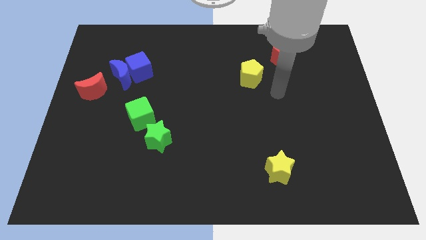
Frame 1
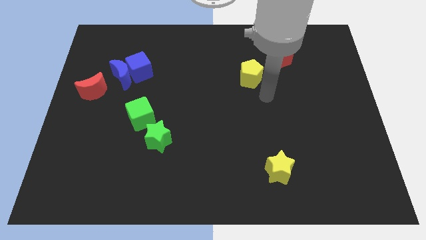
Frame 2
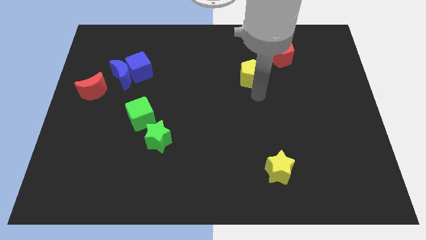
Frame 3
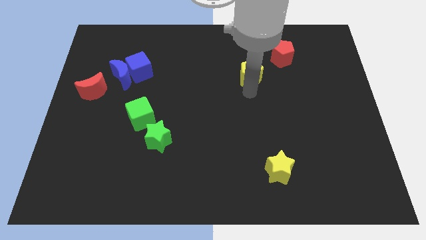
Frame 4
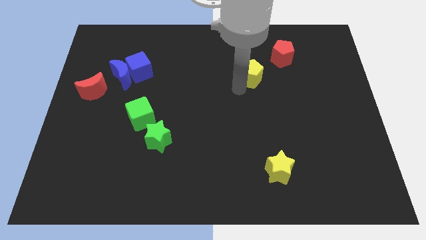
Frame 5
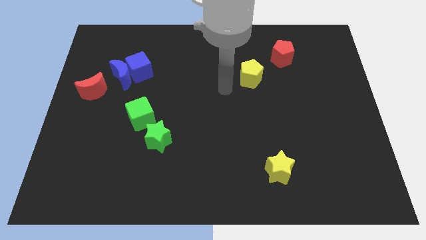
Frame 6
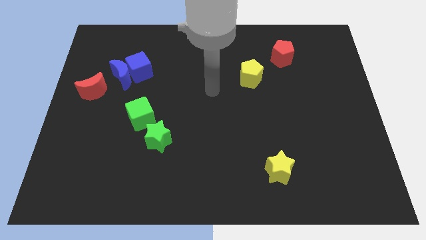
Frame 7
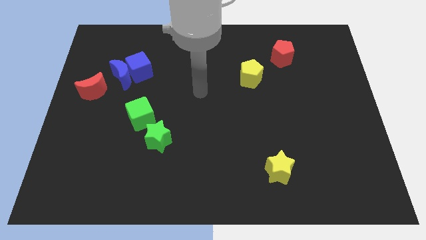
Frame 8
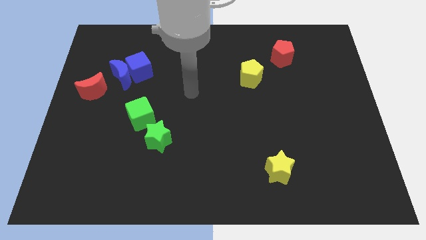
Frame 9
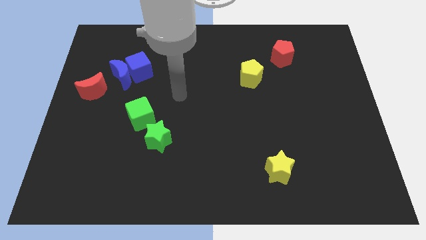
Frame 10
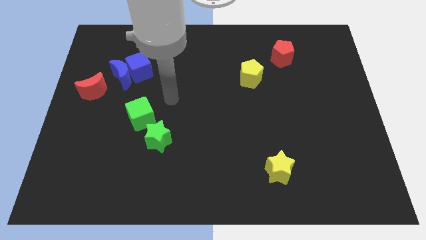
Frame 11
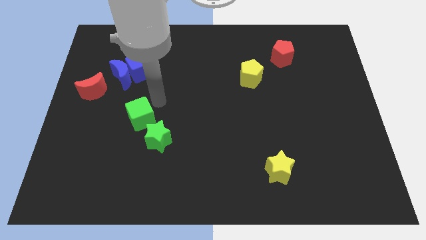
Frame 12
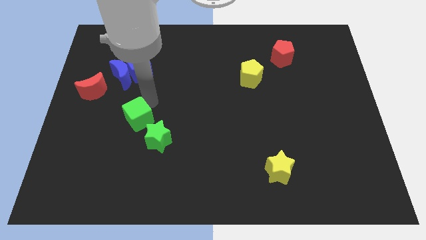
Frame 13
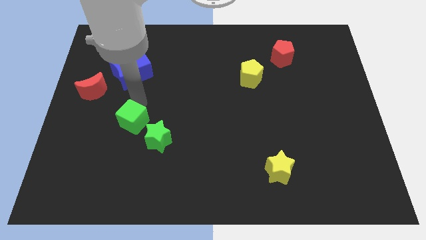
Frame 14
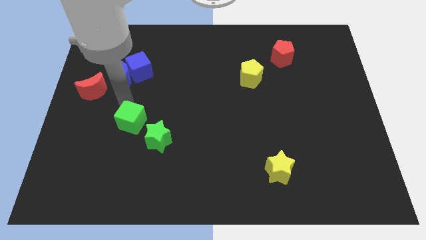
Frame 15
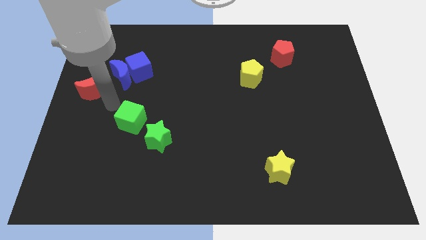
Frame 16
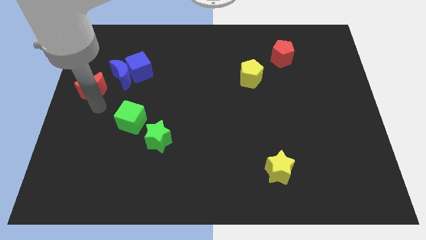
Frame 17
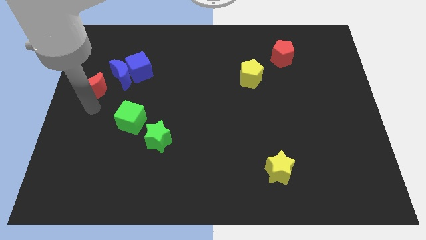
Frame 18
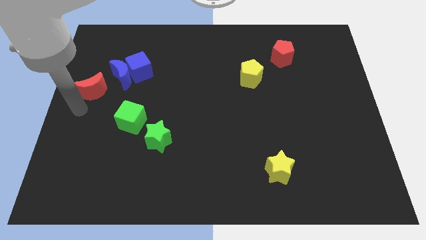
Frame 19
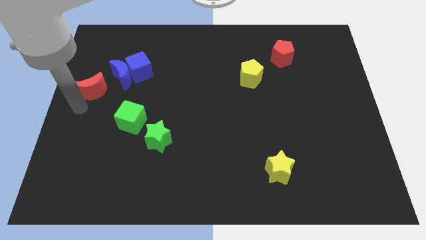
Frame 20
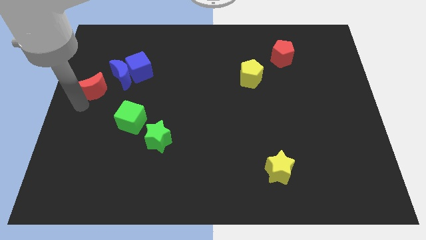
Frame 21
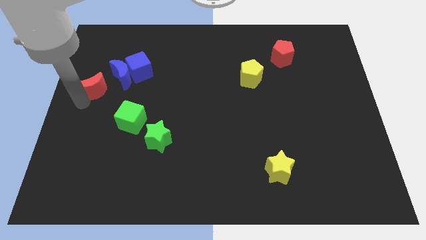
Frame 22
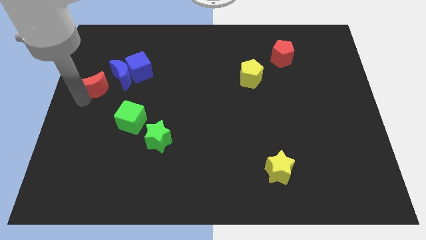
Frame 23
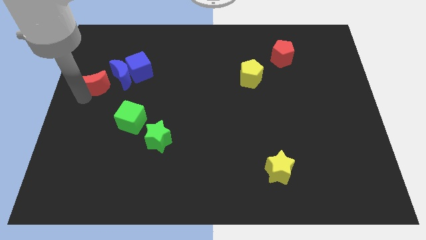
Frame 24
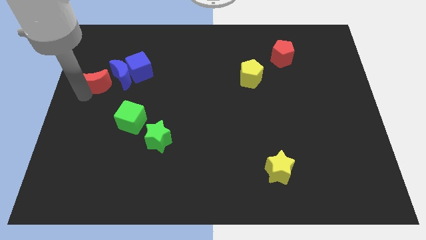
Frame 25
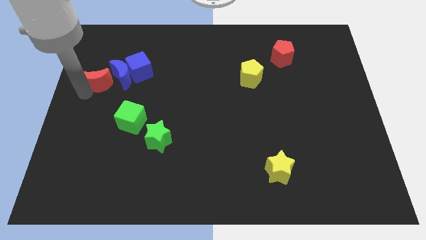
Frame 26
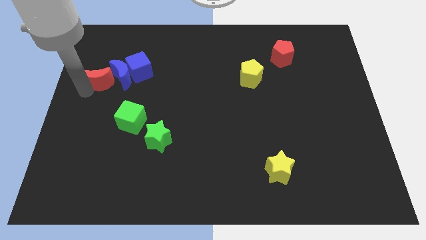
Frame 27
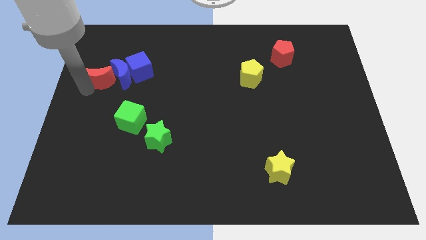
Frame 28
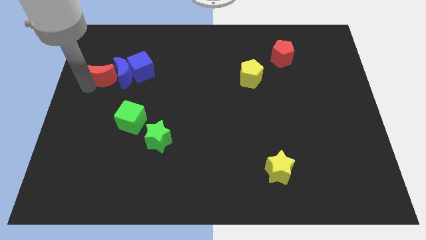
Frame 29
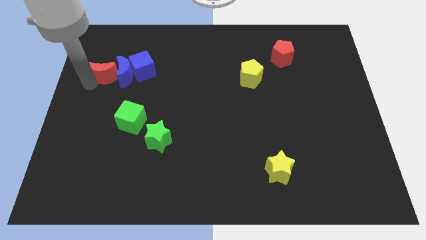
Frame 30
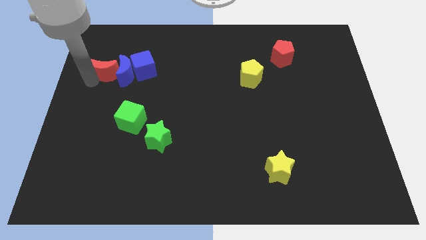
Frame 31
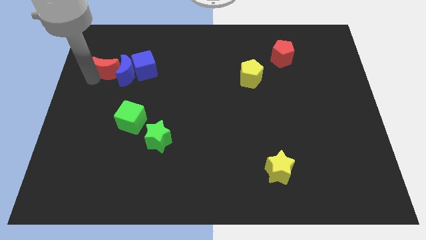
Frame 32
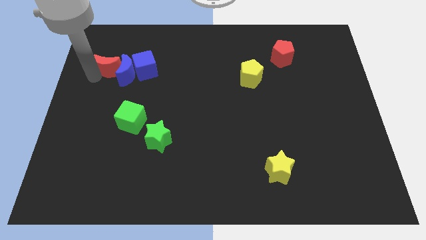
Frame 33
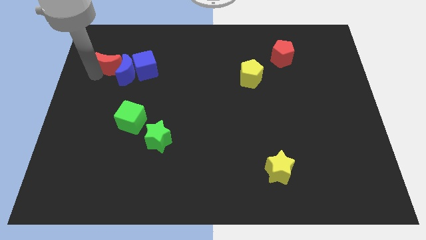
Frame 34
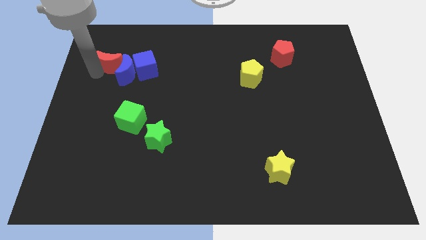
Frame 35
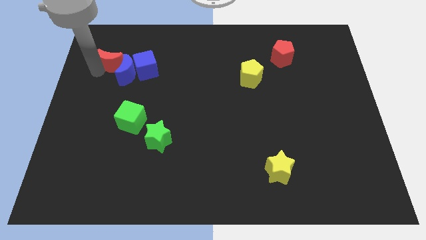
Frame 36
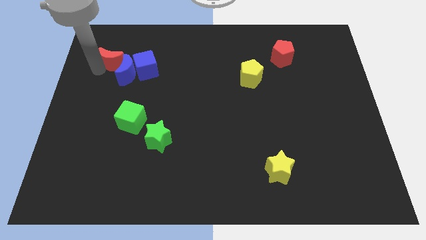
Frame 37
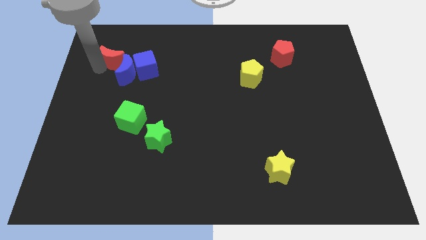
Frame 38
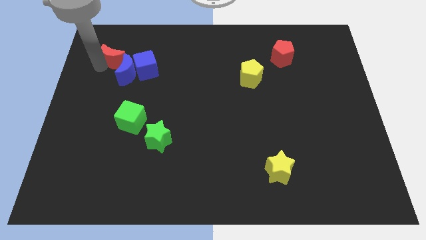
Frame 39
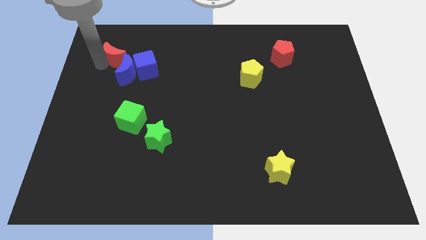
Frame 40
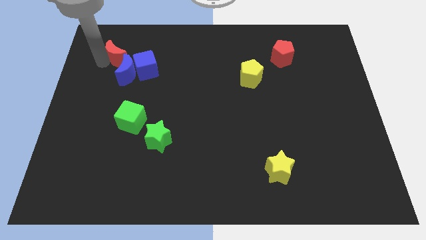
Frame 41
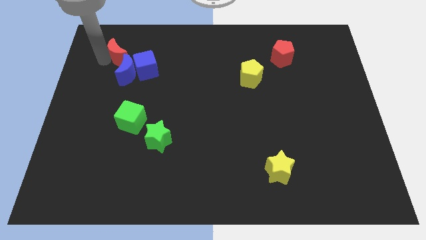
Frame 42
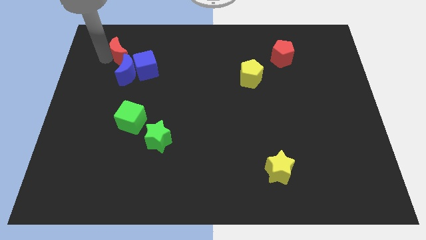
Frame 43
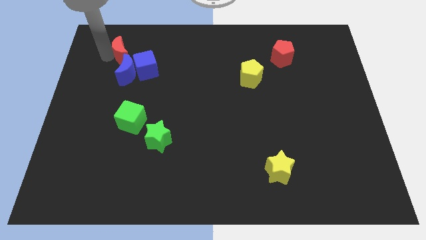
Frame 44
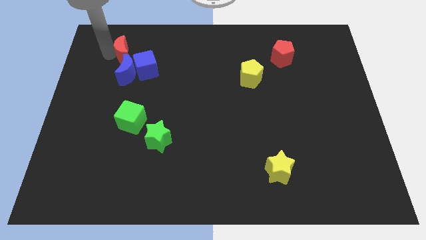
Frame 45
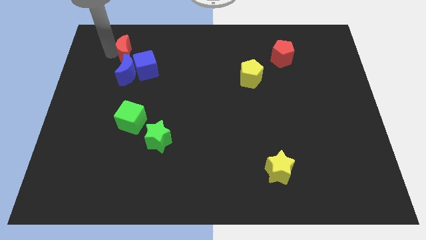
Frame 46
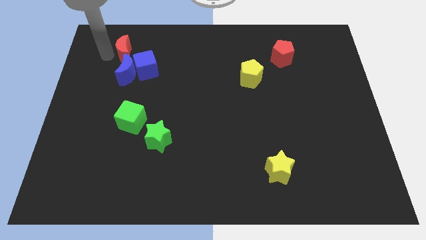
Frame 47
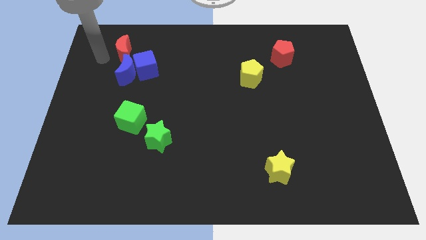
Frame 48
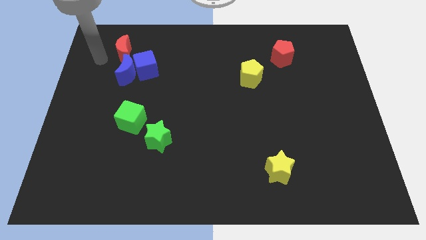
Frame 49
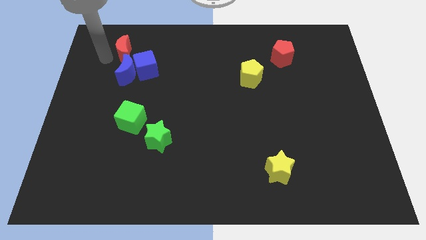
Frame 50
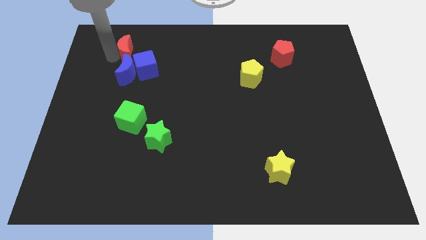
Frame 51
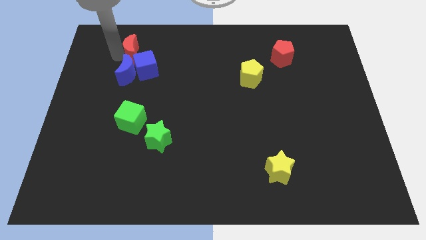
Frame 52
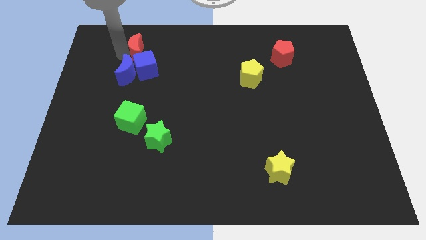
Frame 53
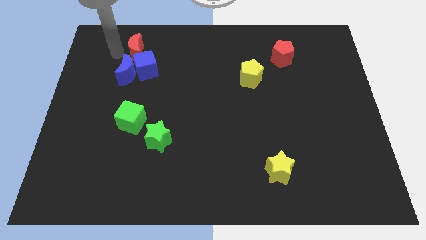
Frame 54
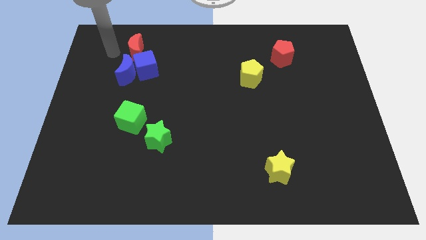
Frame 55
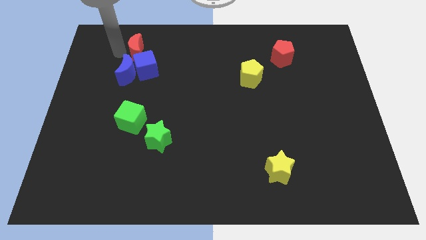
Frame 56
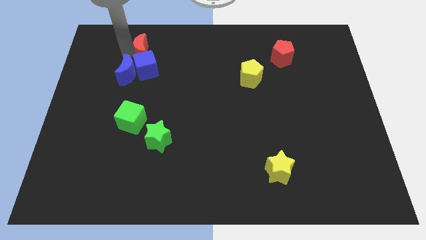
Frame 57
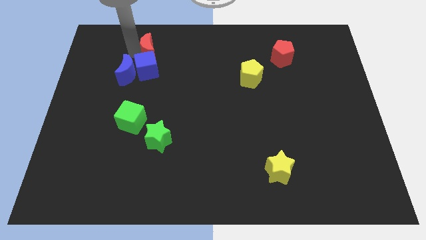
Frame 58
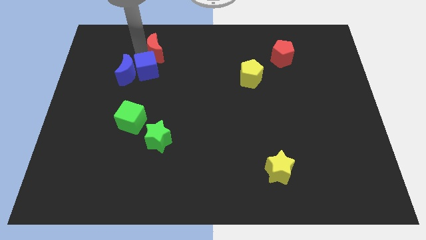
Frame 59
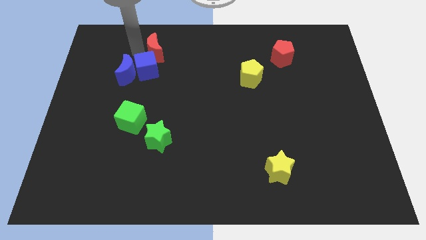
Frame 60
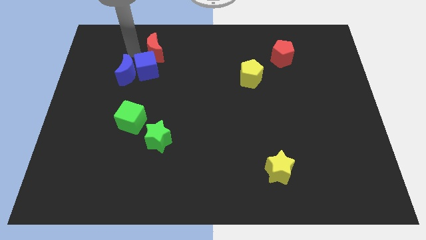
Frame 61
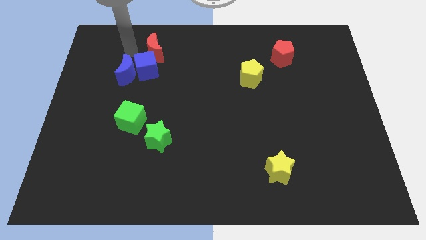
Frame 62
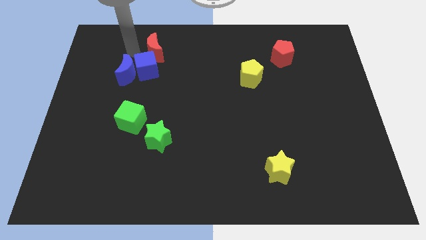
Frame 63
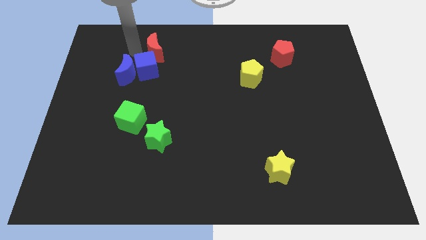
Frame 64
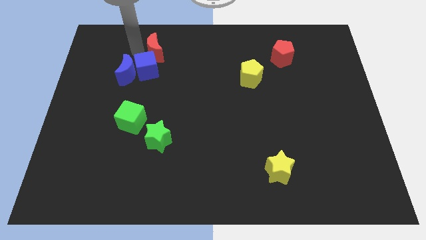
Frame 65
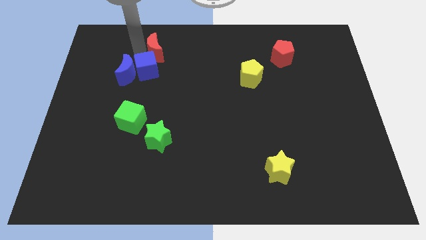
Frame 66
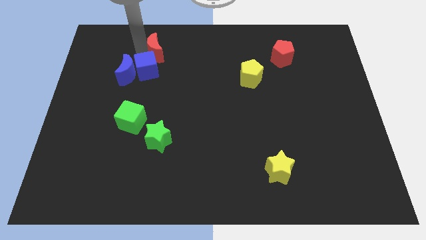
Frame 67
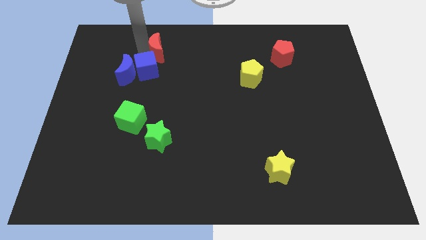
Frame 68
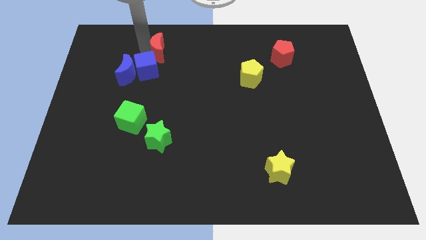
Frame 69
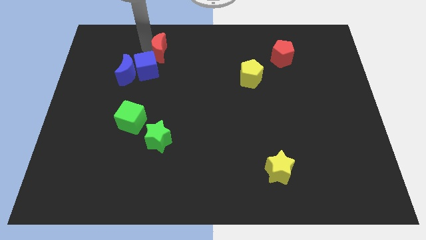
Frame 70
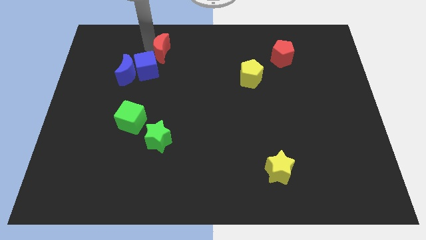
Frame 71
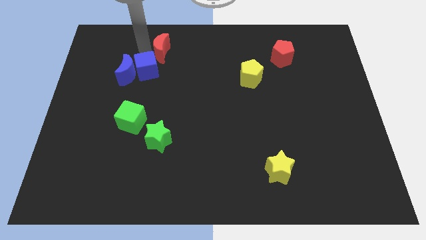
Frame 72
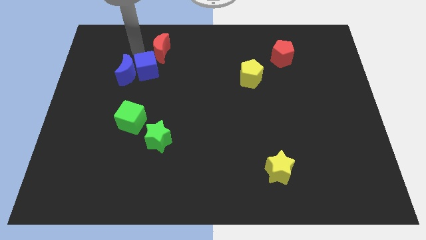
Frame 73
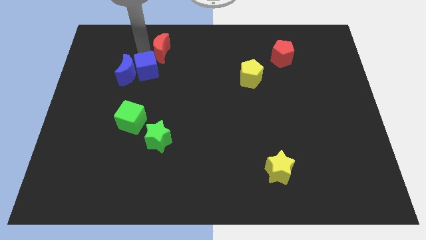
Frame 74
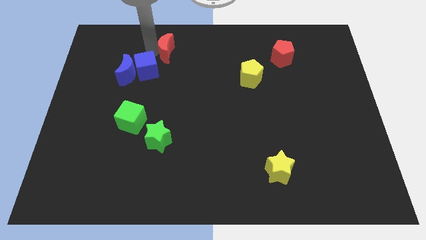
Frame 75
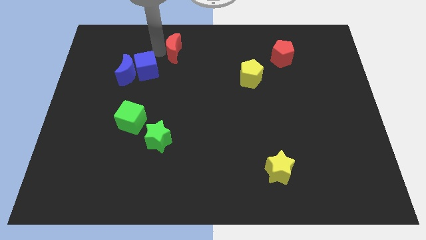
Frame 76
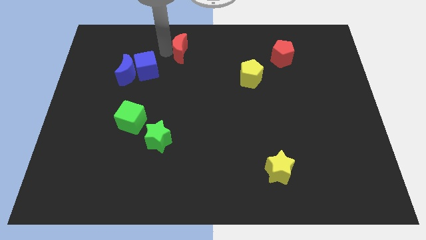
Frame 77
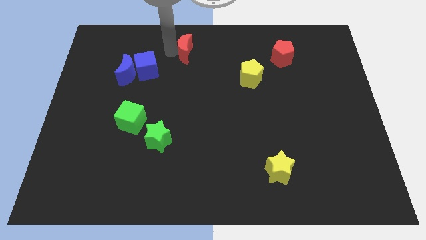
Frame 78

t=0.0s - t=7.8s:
push the red moon to the top
